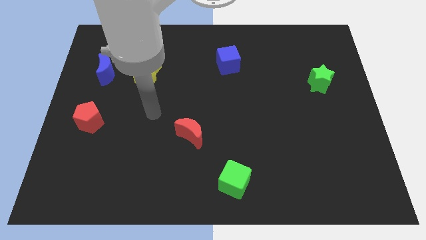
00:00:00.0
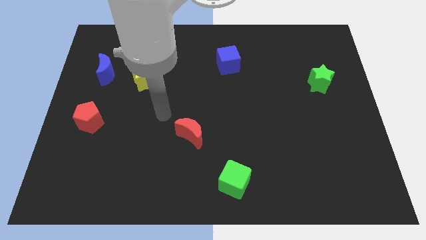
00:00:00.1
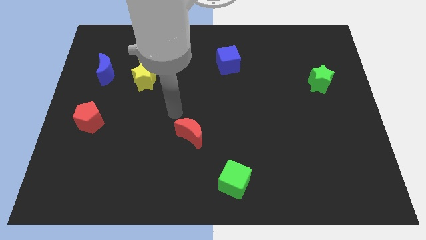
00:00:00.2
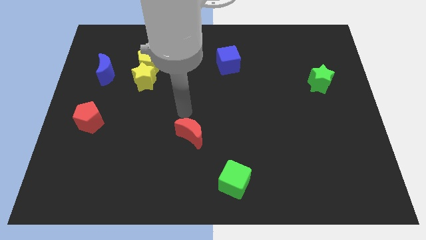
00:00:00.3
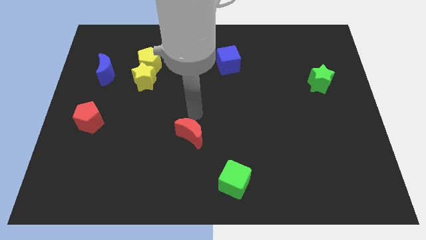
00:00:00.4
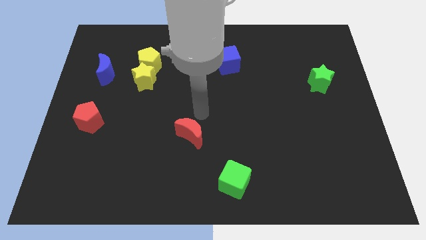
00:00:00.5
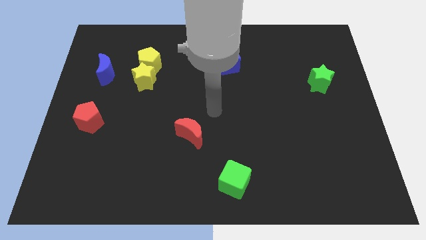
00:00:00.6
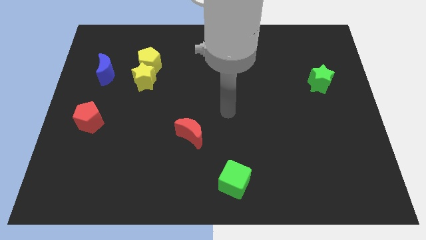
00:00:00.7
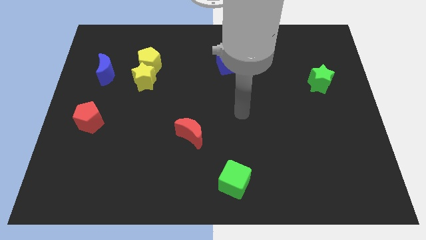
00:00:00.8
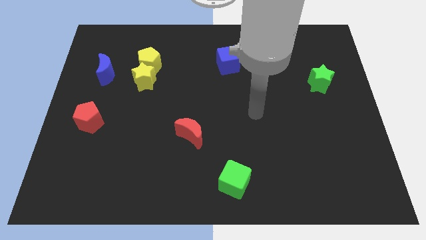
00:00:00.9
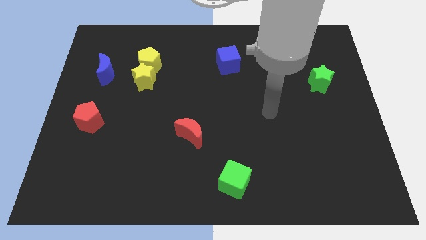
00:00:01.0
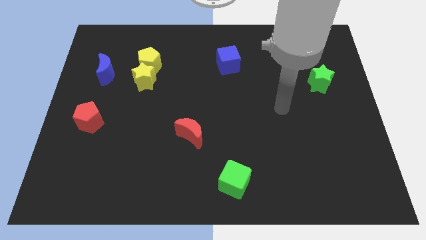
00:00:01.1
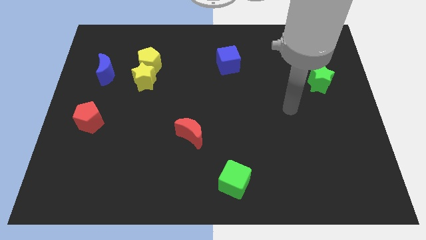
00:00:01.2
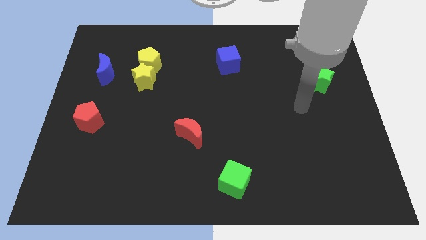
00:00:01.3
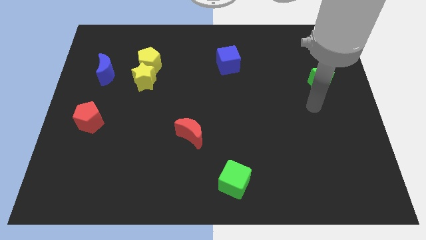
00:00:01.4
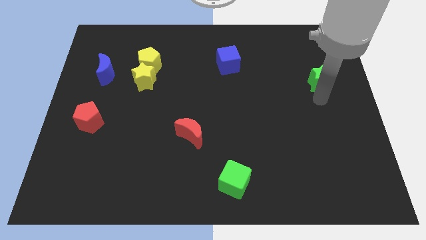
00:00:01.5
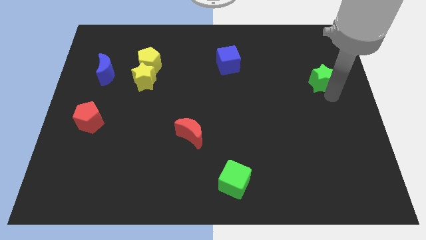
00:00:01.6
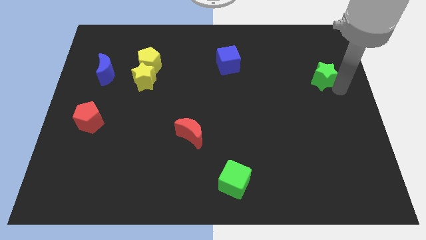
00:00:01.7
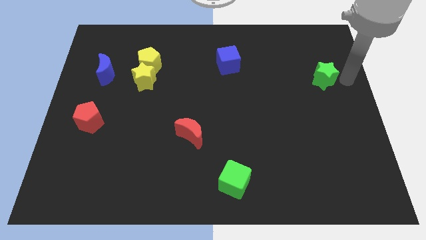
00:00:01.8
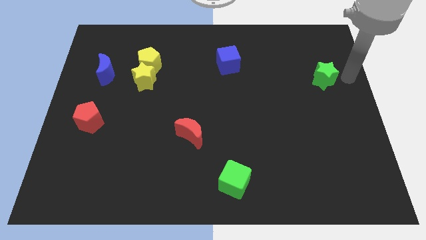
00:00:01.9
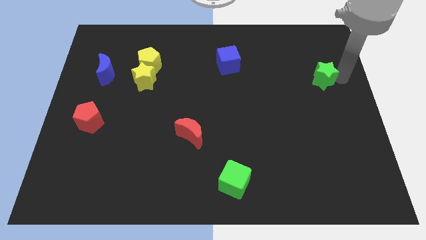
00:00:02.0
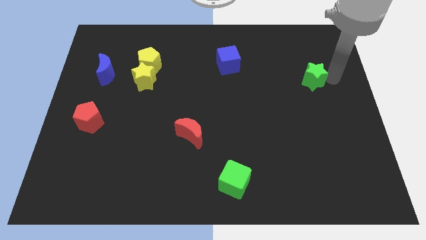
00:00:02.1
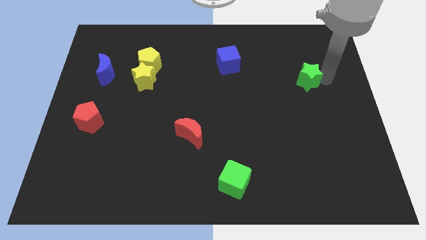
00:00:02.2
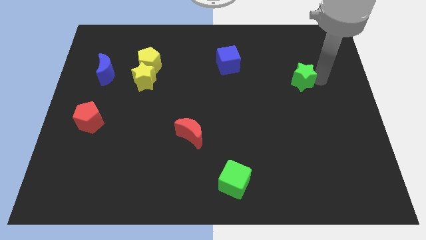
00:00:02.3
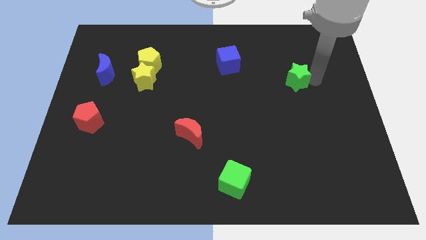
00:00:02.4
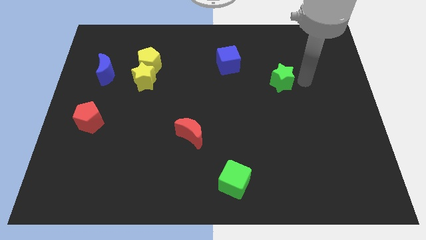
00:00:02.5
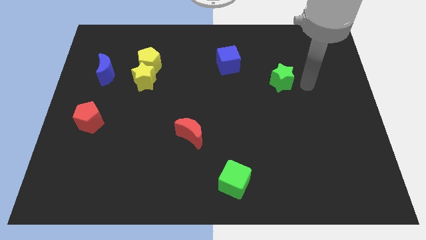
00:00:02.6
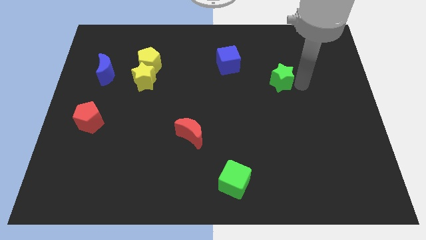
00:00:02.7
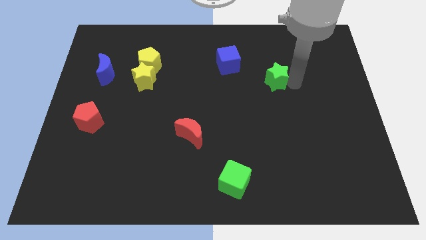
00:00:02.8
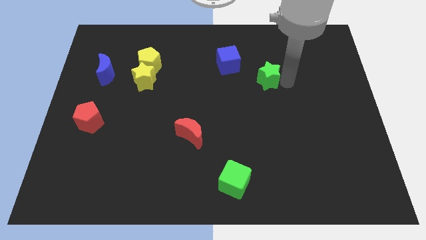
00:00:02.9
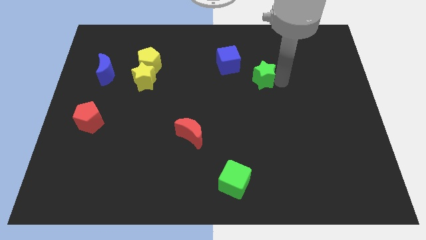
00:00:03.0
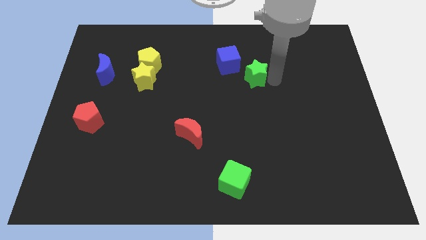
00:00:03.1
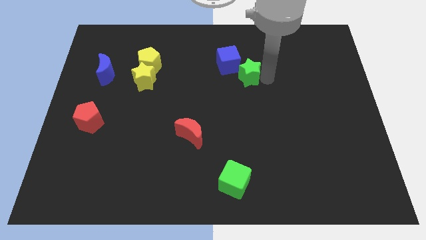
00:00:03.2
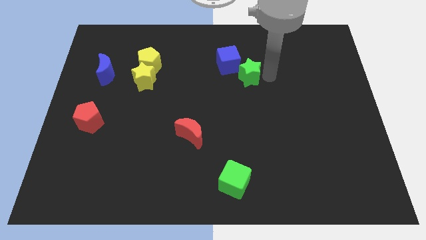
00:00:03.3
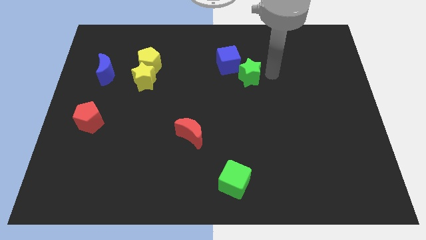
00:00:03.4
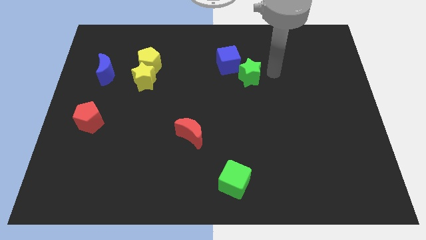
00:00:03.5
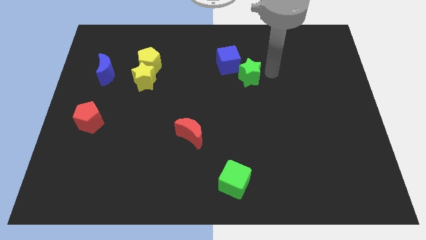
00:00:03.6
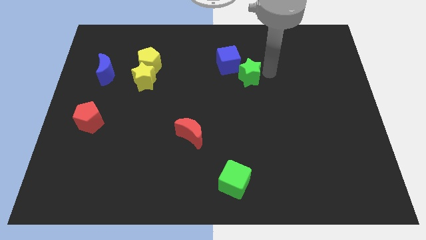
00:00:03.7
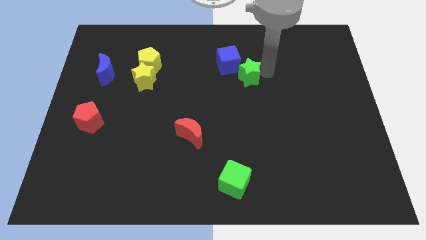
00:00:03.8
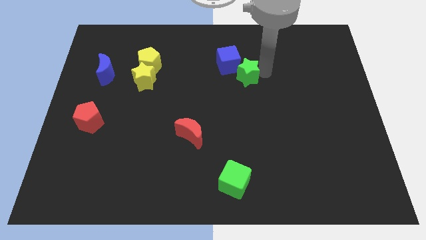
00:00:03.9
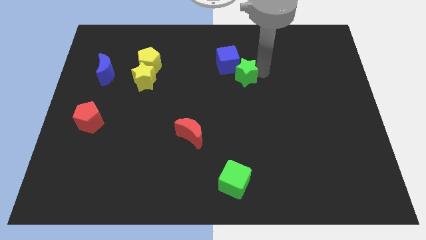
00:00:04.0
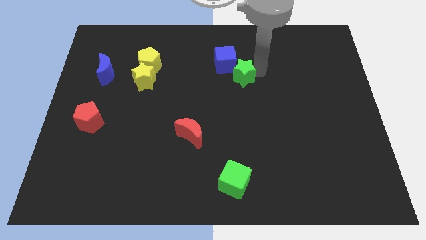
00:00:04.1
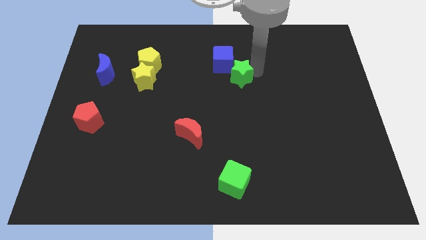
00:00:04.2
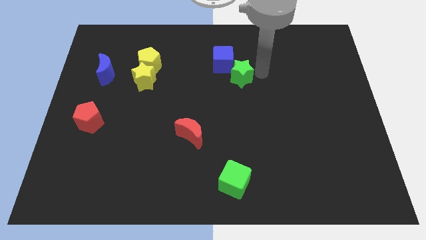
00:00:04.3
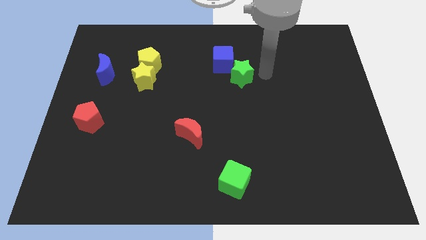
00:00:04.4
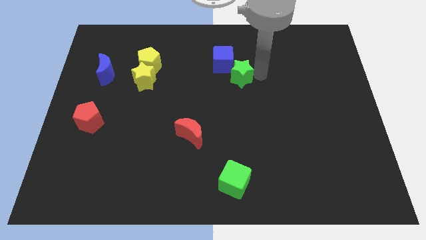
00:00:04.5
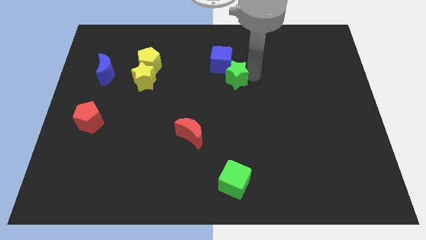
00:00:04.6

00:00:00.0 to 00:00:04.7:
move the green star to the left

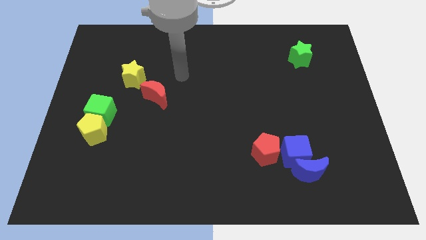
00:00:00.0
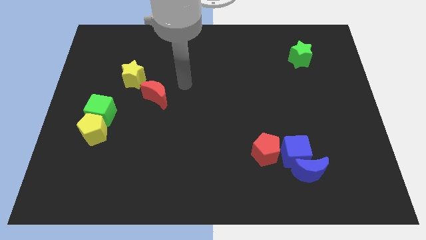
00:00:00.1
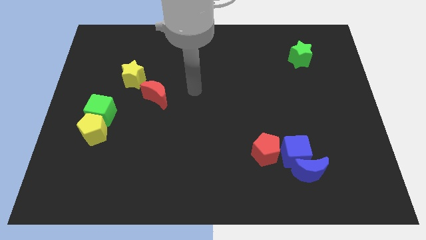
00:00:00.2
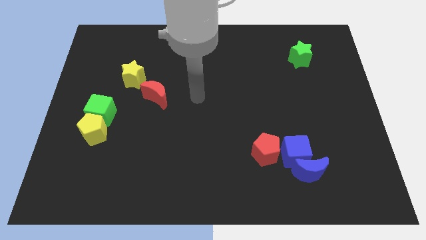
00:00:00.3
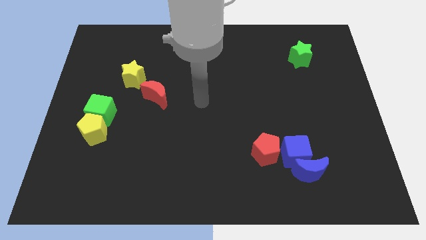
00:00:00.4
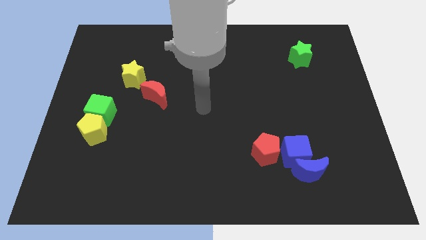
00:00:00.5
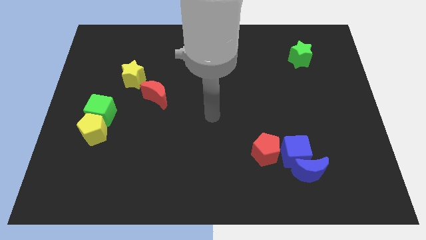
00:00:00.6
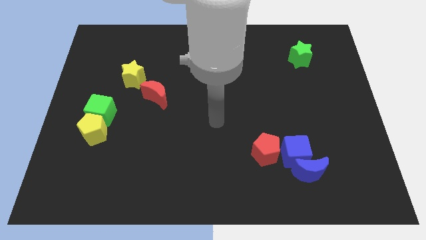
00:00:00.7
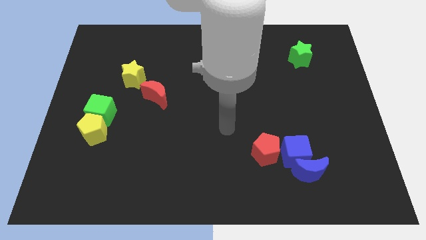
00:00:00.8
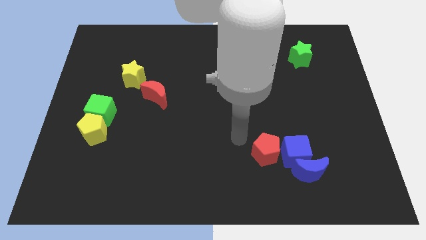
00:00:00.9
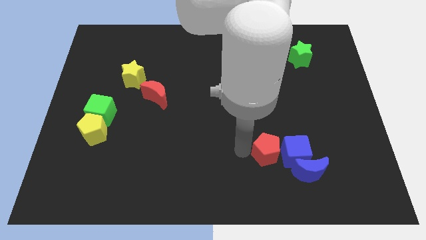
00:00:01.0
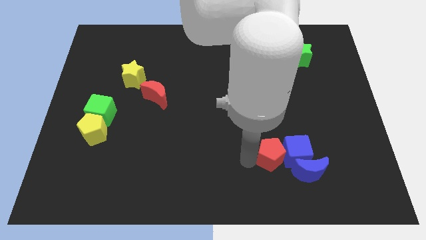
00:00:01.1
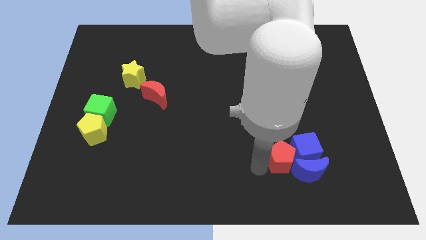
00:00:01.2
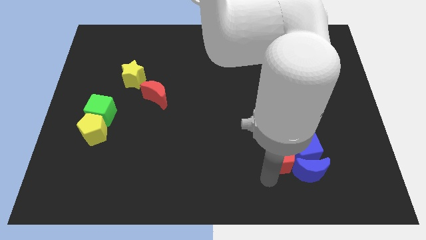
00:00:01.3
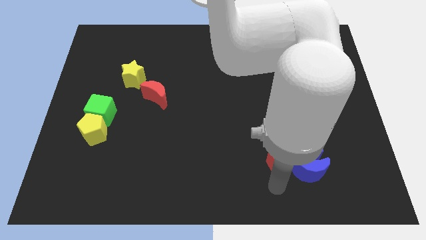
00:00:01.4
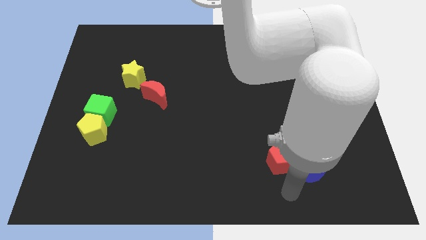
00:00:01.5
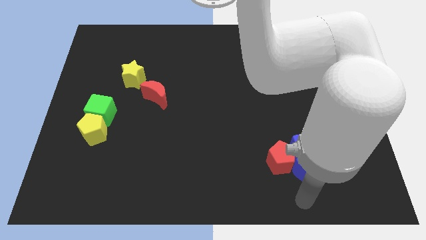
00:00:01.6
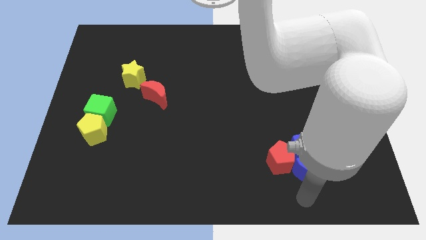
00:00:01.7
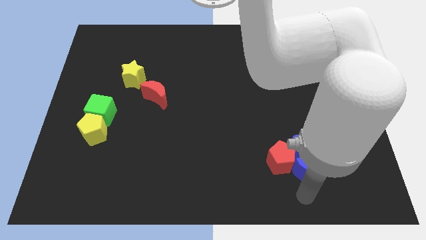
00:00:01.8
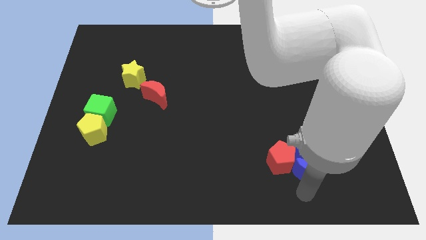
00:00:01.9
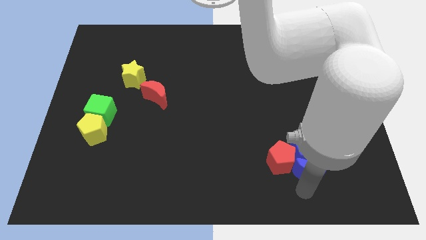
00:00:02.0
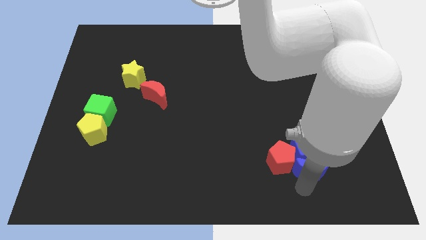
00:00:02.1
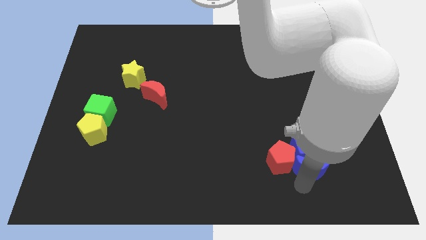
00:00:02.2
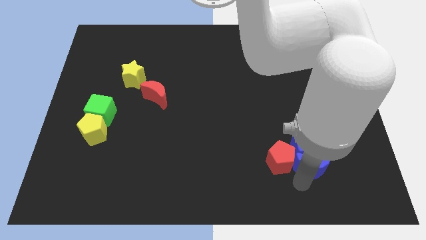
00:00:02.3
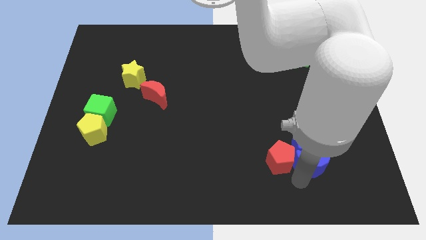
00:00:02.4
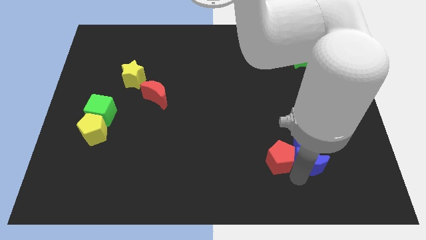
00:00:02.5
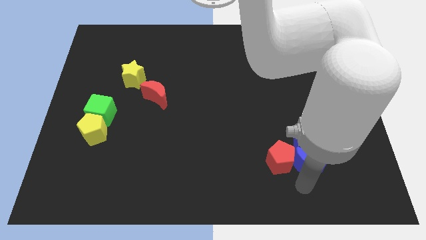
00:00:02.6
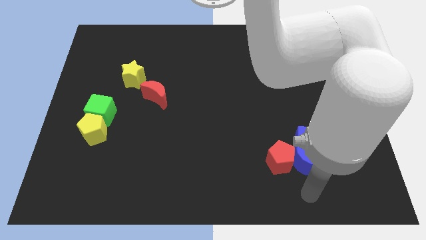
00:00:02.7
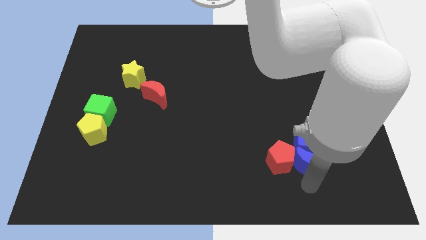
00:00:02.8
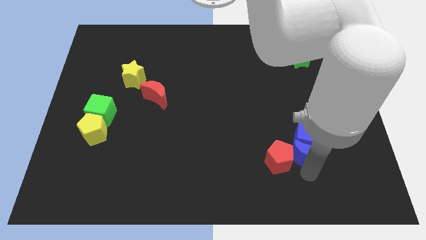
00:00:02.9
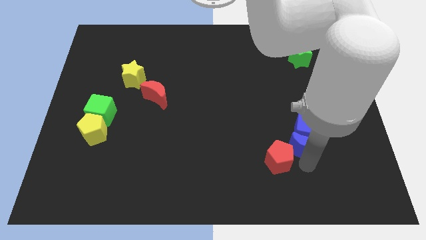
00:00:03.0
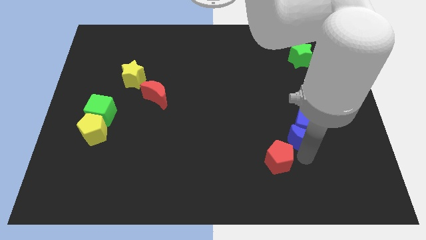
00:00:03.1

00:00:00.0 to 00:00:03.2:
slightly move the blue moon up

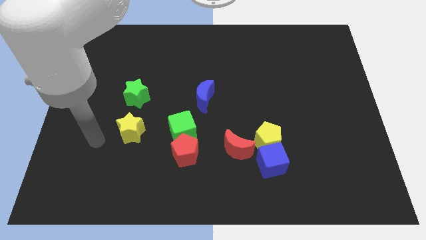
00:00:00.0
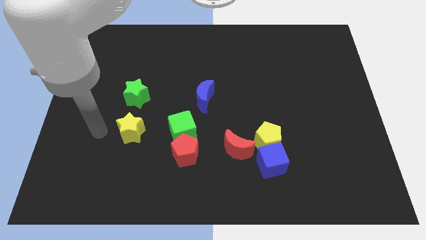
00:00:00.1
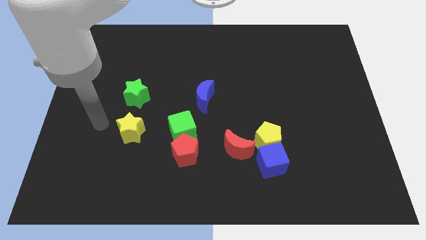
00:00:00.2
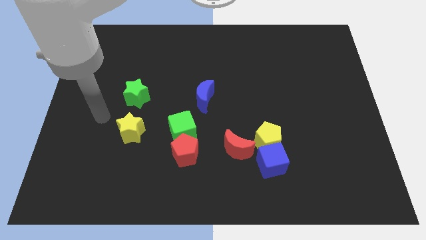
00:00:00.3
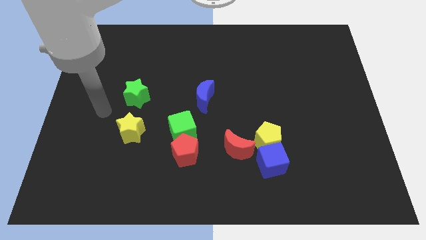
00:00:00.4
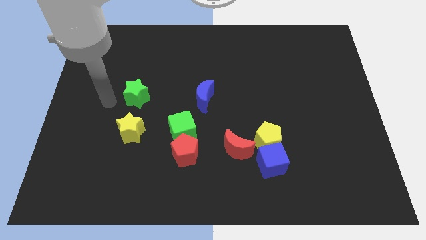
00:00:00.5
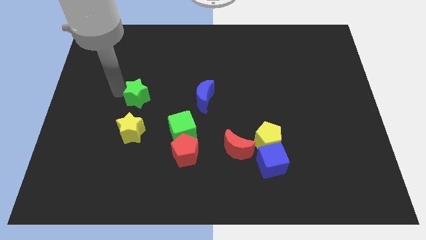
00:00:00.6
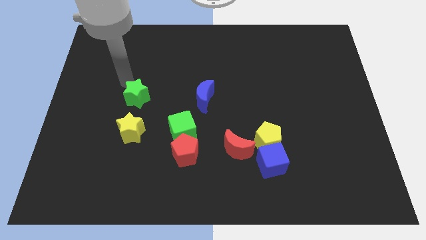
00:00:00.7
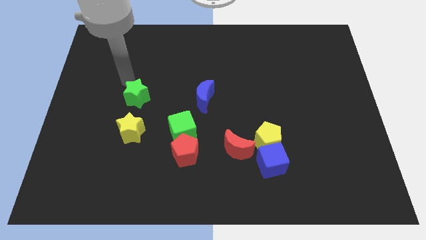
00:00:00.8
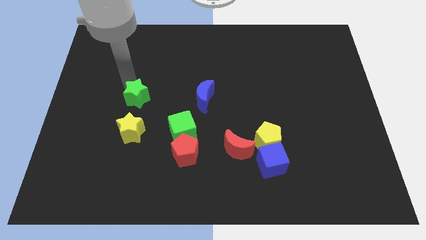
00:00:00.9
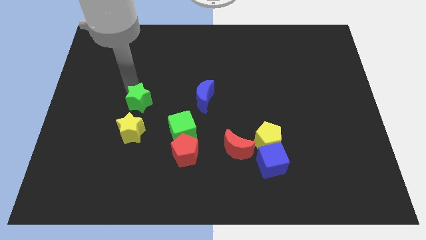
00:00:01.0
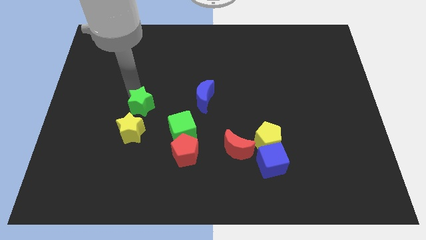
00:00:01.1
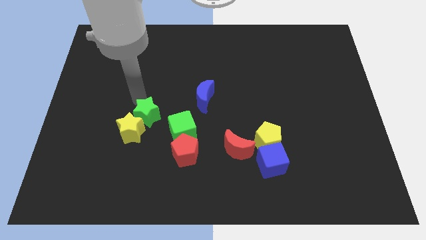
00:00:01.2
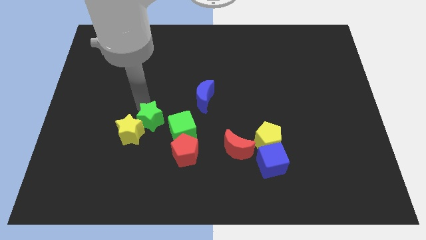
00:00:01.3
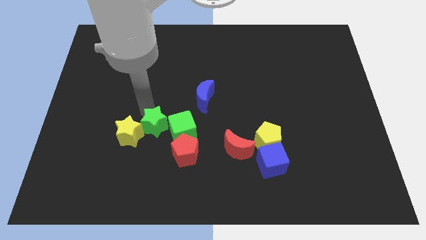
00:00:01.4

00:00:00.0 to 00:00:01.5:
move the green star a bit down
